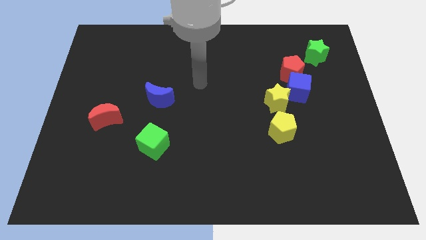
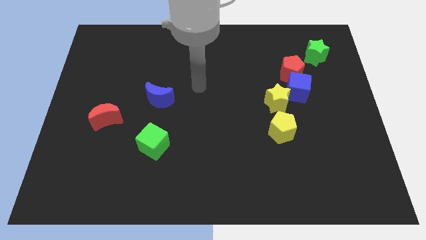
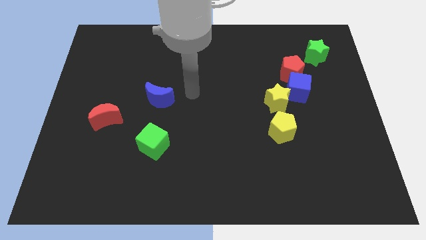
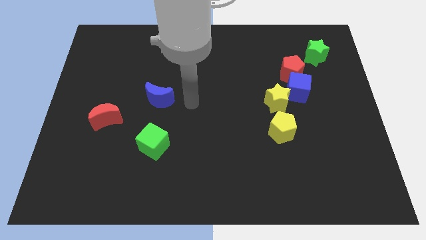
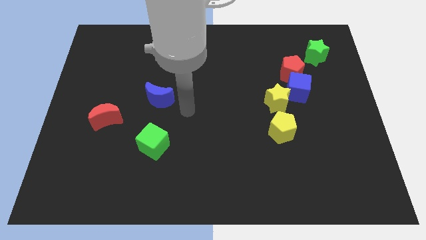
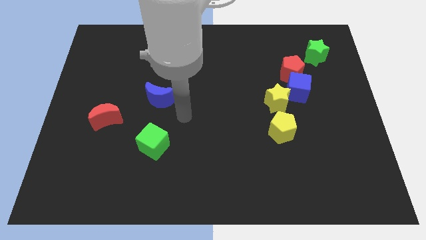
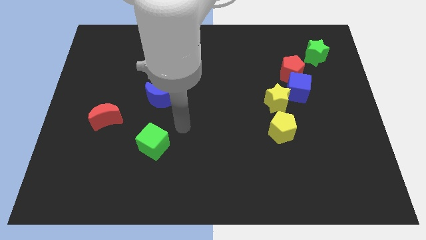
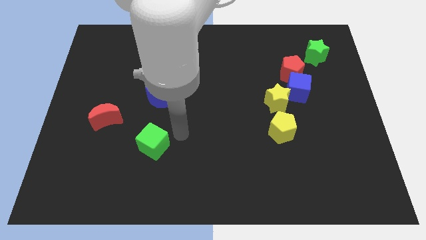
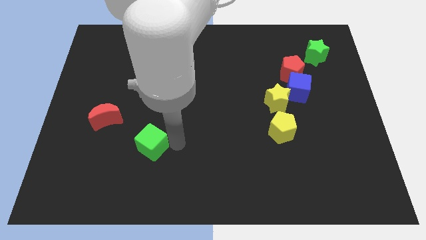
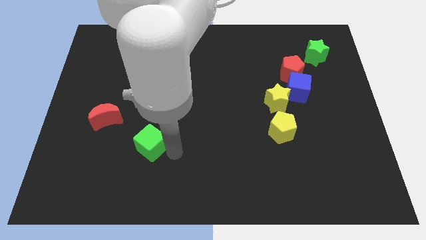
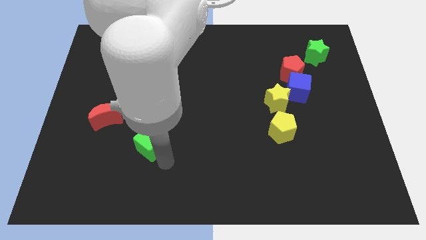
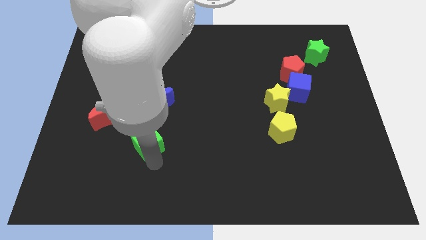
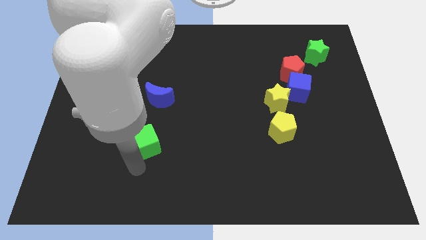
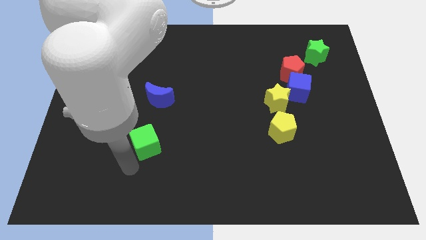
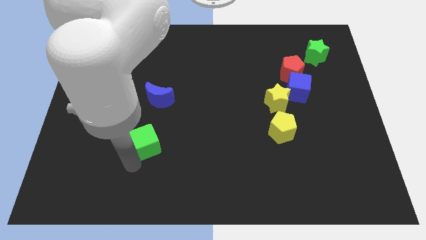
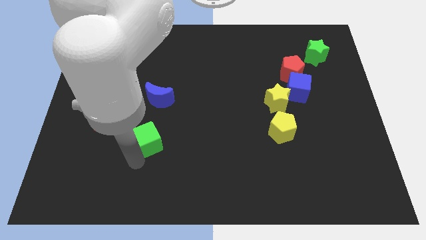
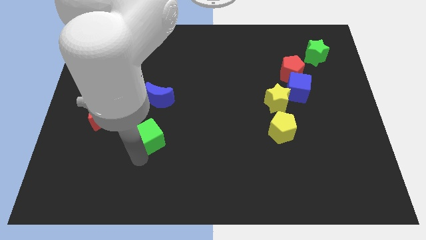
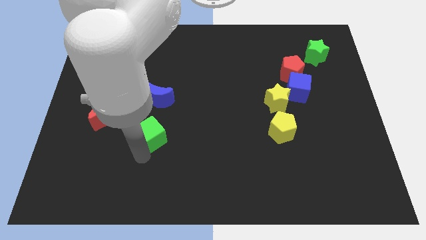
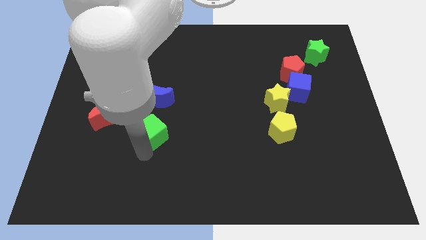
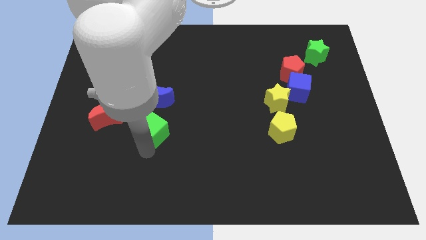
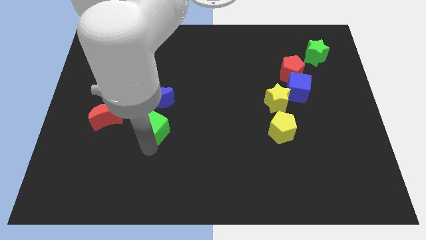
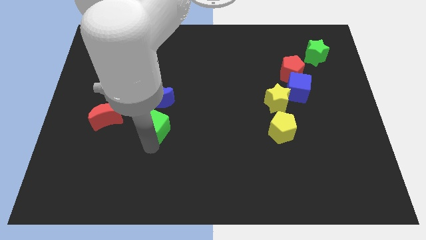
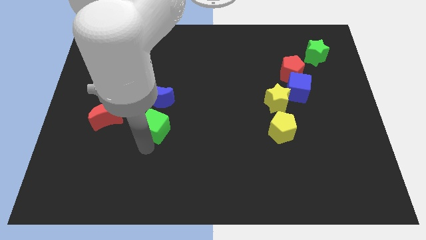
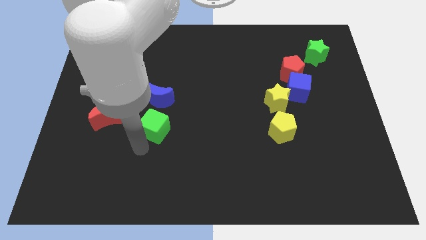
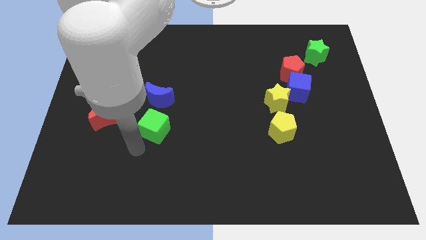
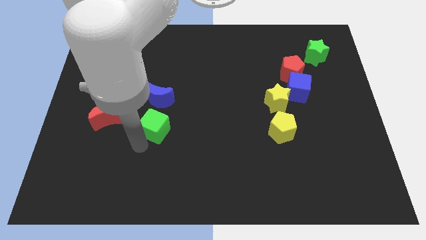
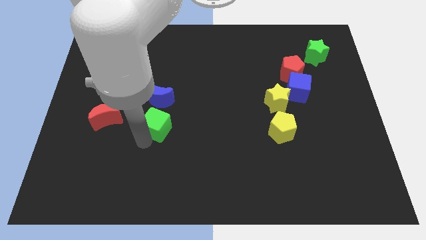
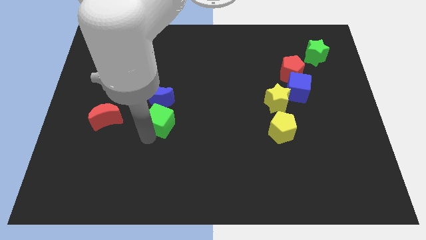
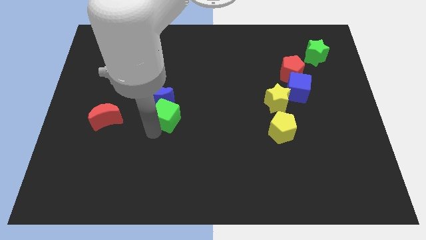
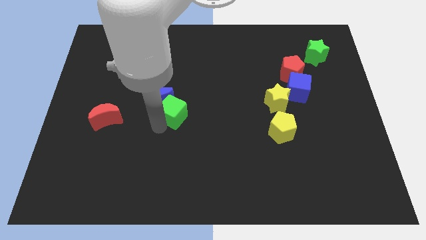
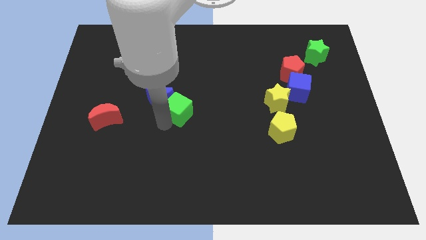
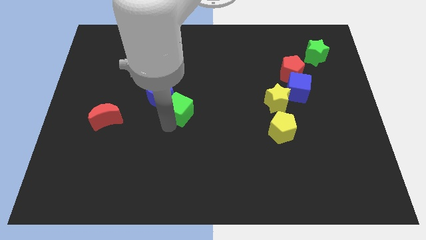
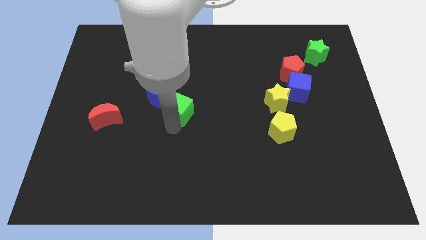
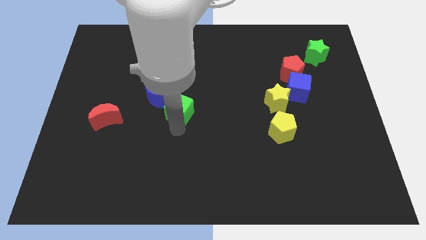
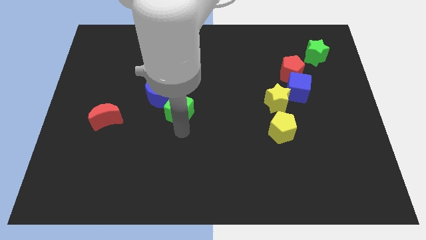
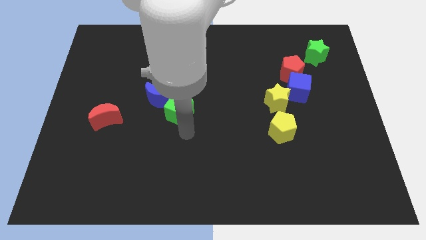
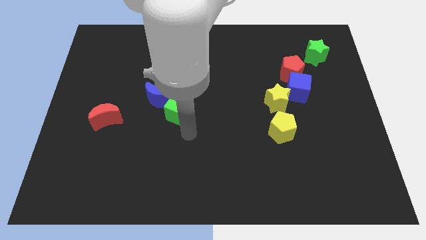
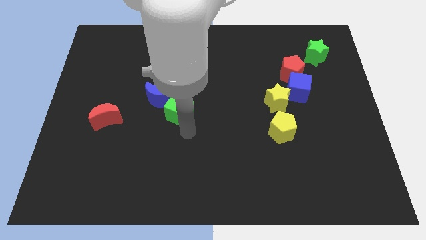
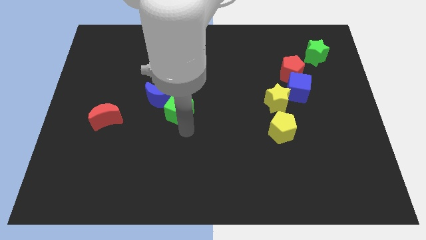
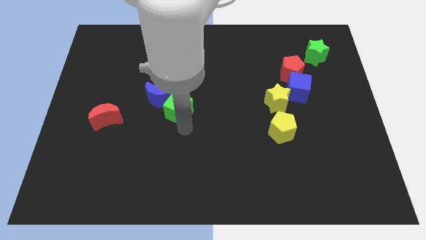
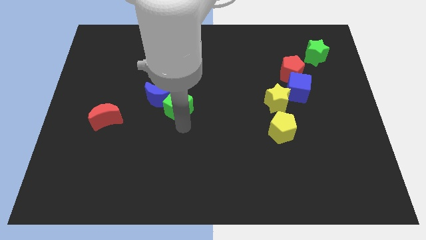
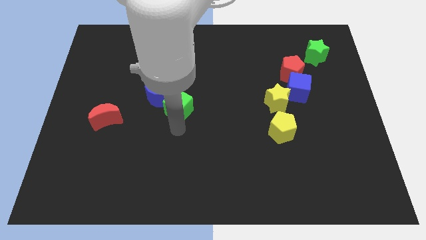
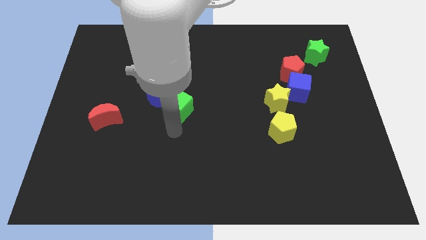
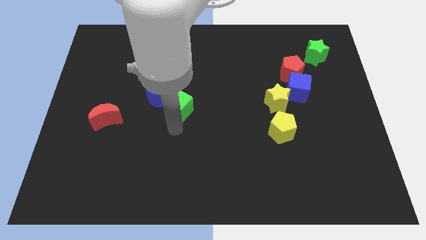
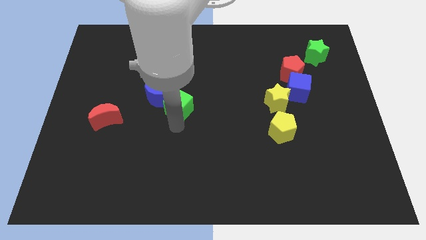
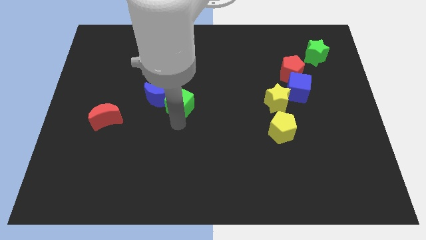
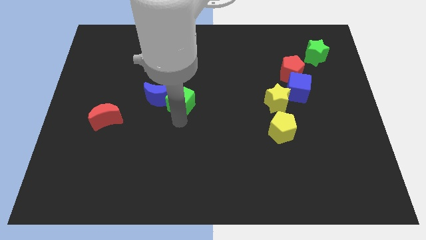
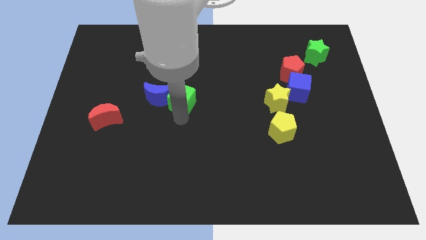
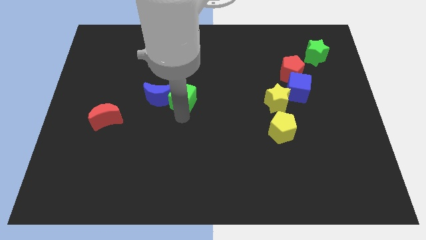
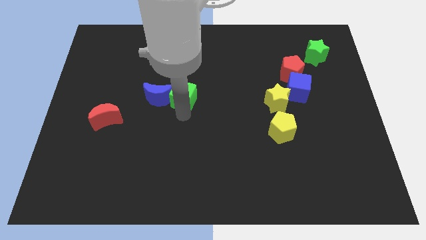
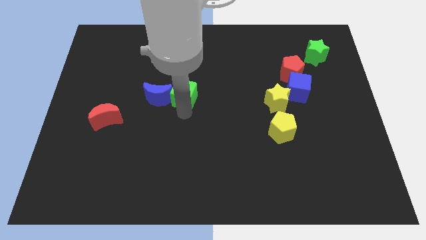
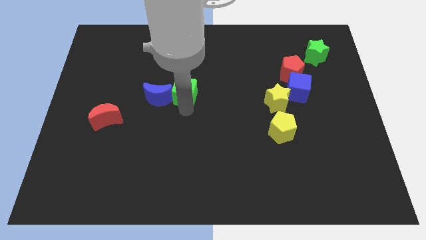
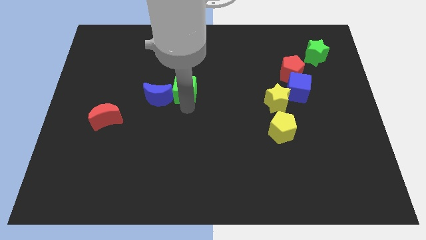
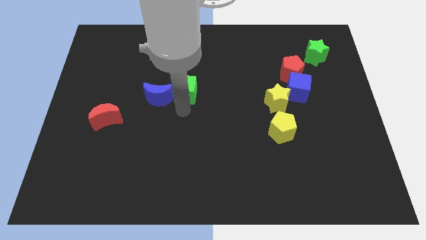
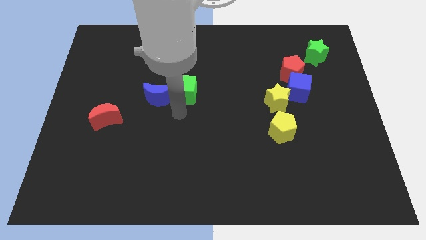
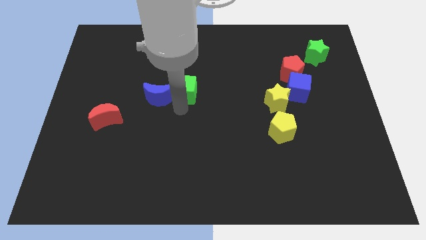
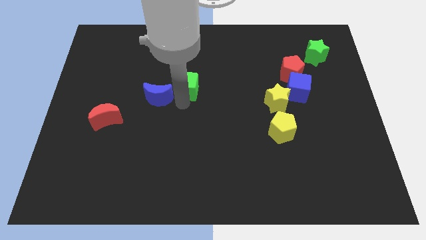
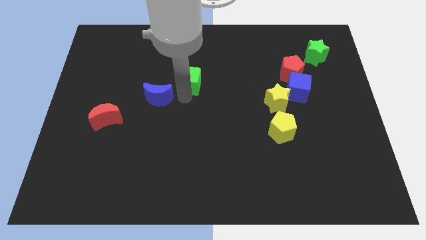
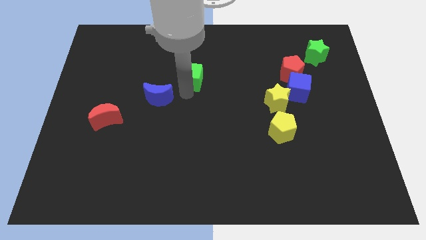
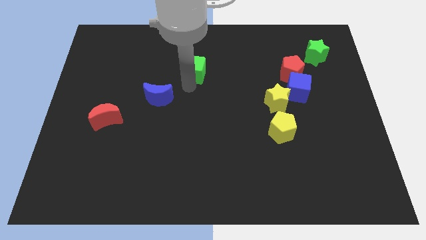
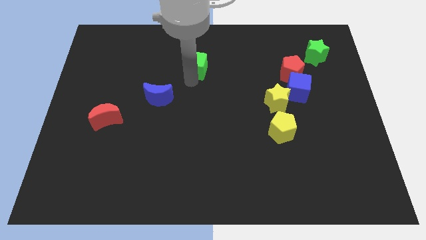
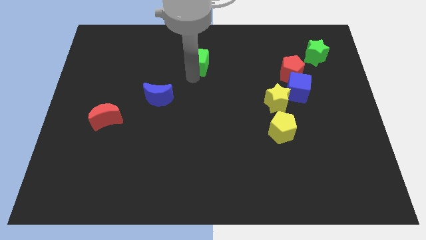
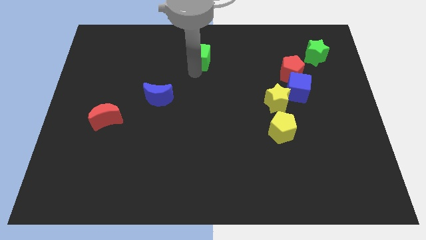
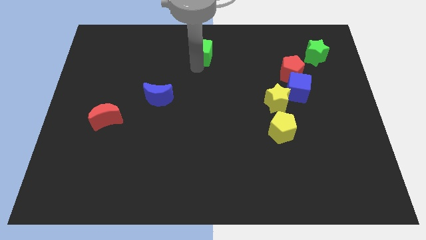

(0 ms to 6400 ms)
move the green cube to the top side
